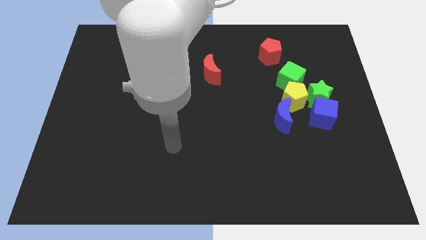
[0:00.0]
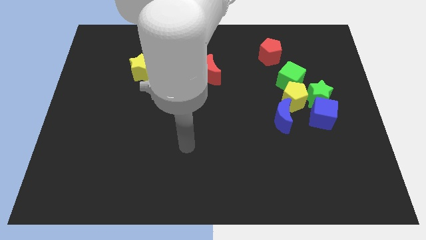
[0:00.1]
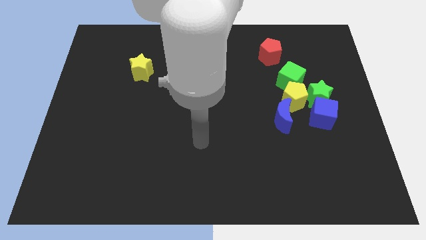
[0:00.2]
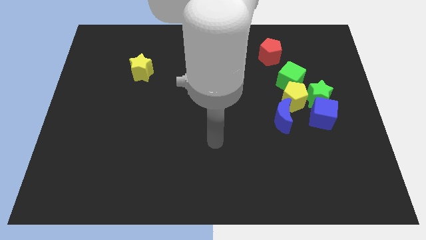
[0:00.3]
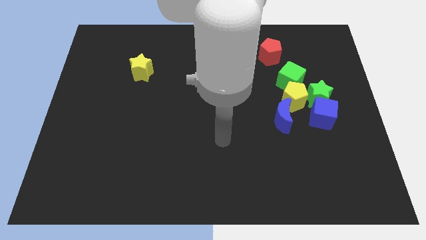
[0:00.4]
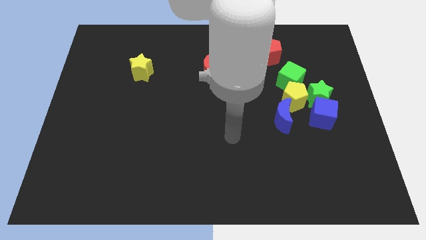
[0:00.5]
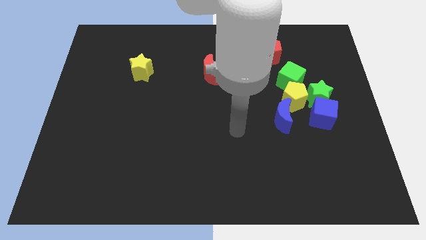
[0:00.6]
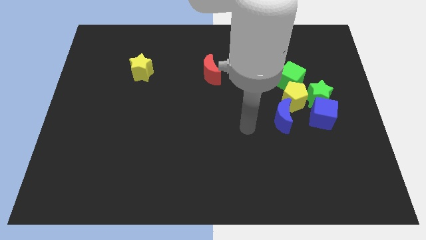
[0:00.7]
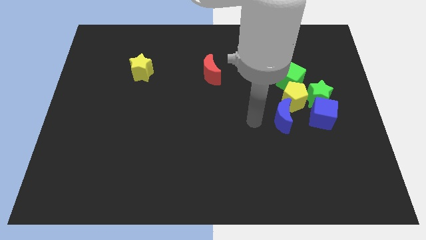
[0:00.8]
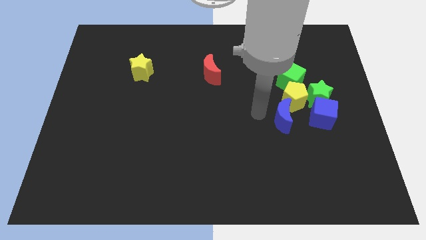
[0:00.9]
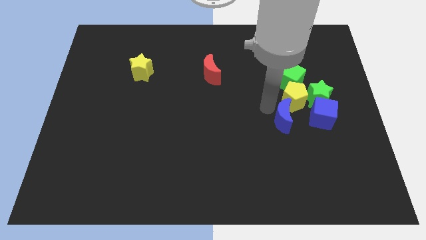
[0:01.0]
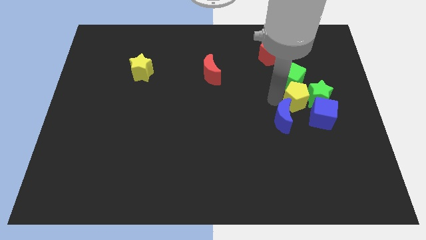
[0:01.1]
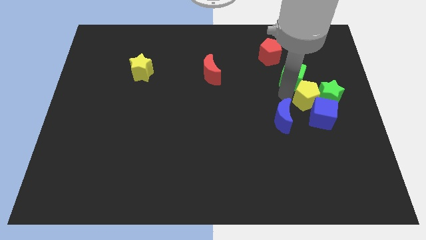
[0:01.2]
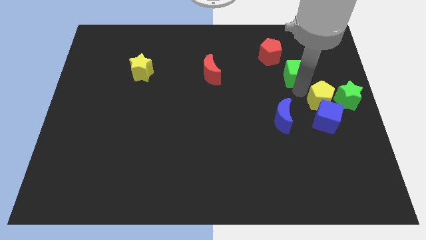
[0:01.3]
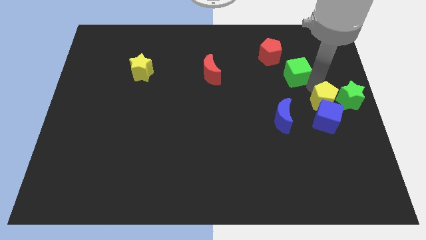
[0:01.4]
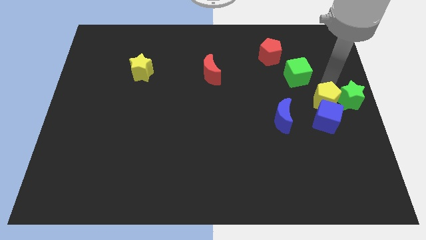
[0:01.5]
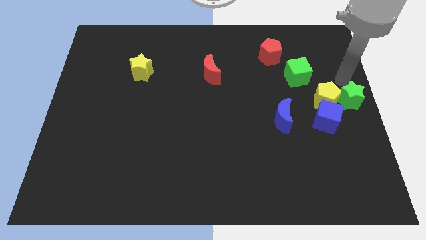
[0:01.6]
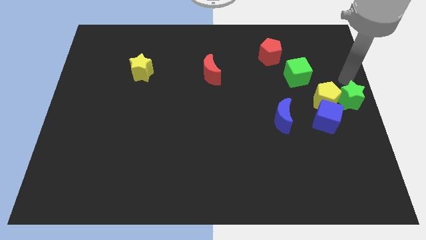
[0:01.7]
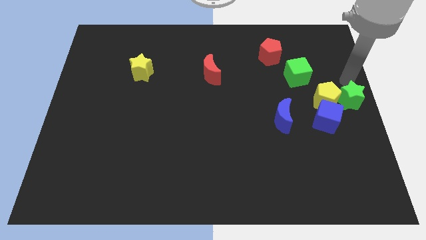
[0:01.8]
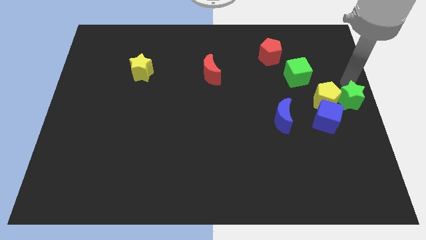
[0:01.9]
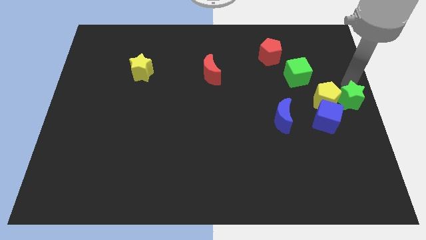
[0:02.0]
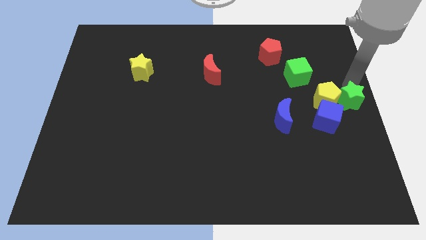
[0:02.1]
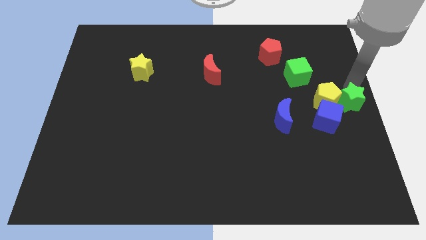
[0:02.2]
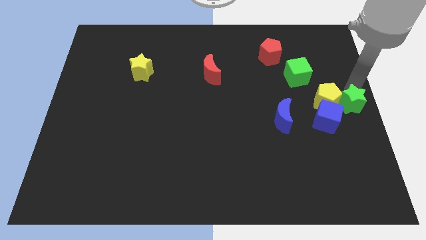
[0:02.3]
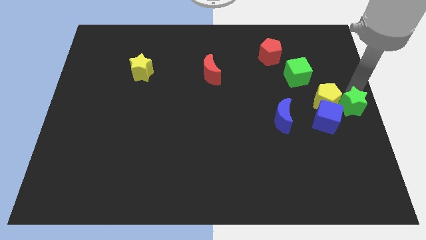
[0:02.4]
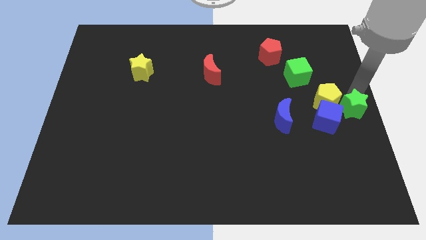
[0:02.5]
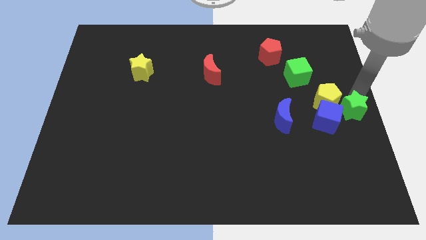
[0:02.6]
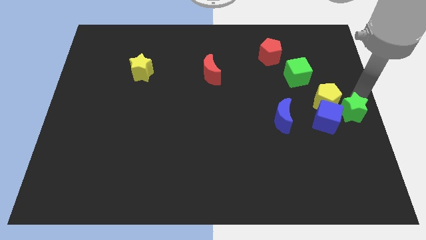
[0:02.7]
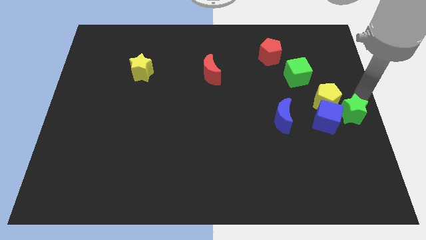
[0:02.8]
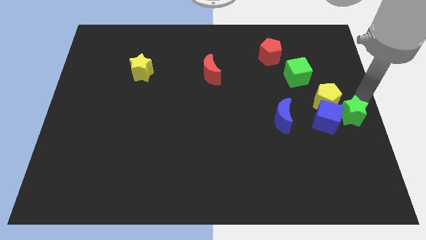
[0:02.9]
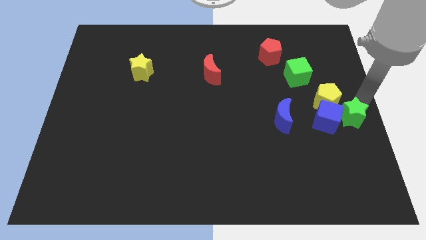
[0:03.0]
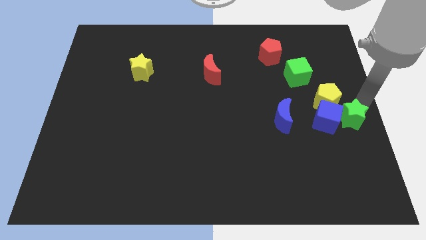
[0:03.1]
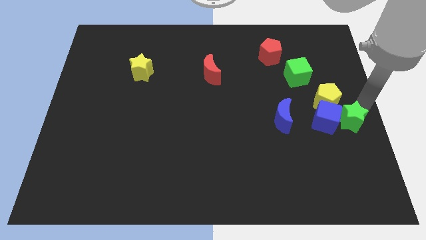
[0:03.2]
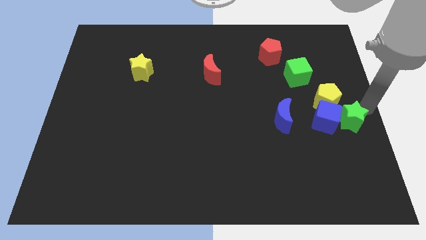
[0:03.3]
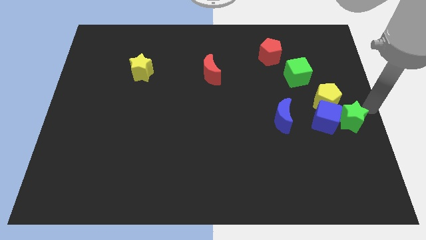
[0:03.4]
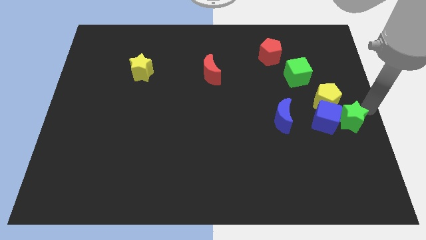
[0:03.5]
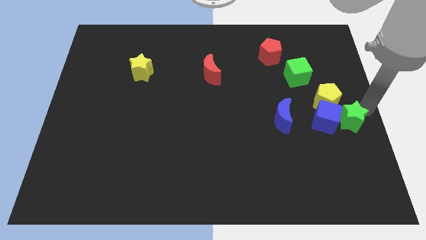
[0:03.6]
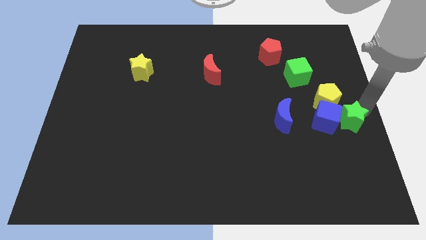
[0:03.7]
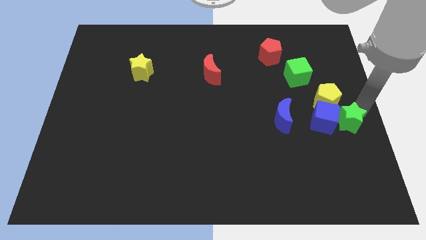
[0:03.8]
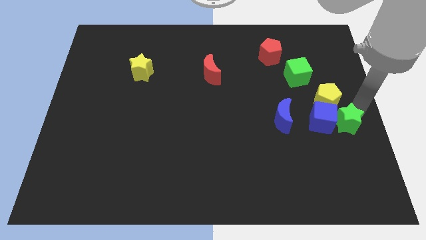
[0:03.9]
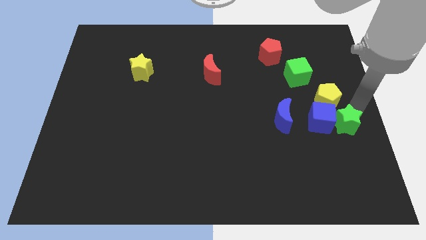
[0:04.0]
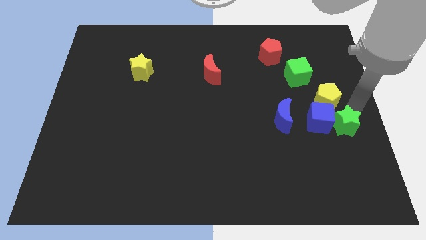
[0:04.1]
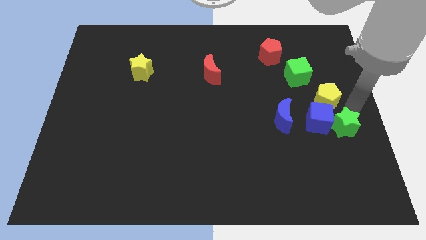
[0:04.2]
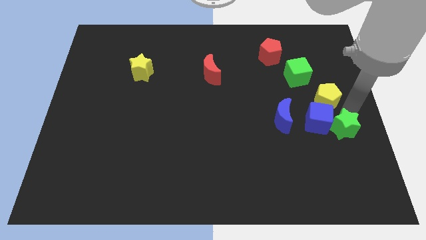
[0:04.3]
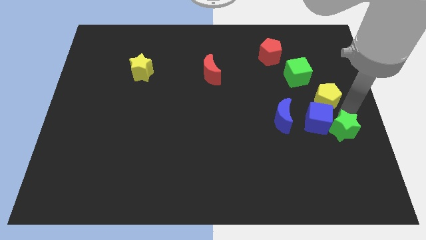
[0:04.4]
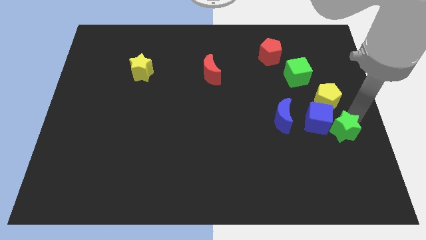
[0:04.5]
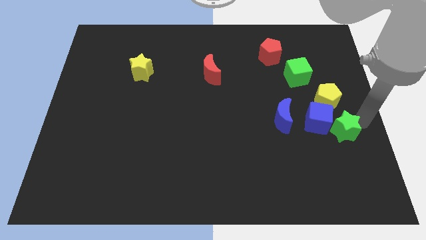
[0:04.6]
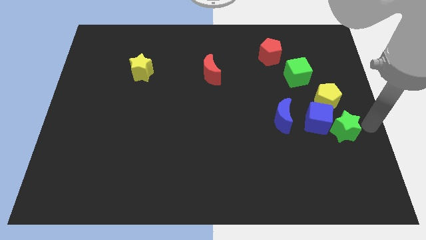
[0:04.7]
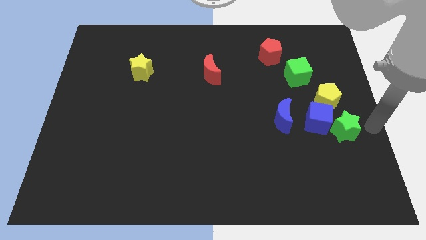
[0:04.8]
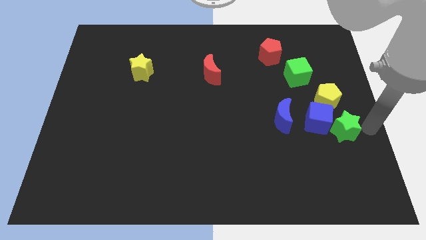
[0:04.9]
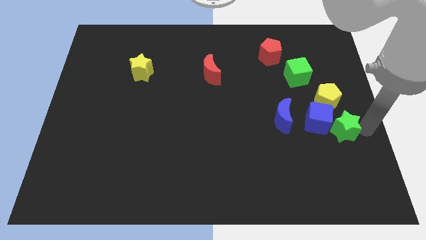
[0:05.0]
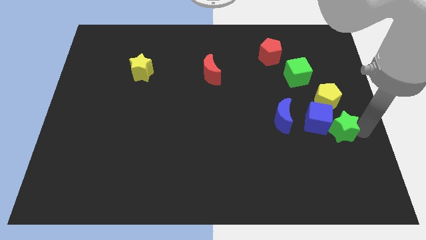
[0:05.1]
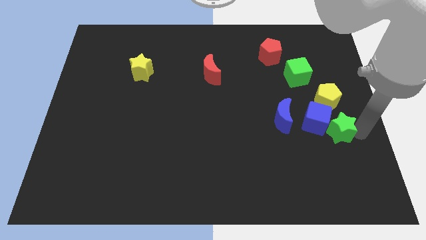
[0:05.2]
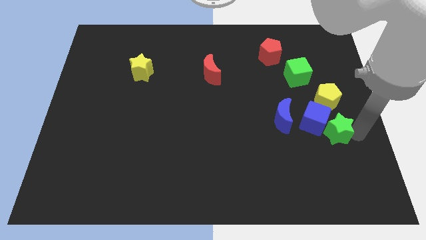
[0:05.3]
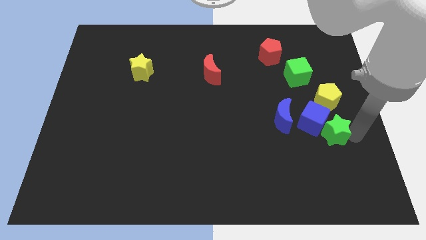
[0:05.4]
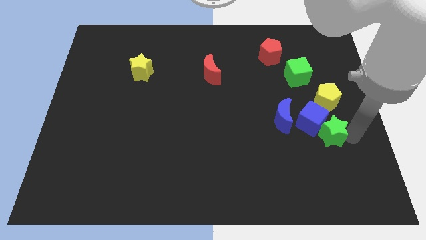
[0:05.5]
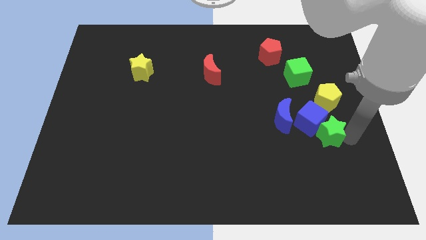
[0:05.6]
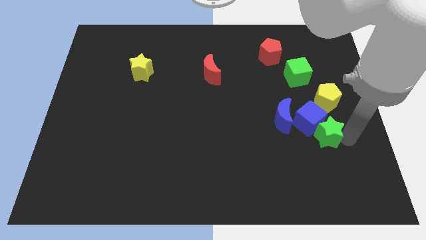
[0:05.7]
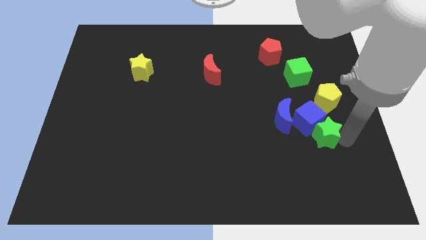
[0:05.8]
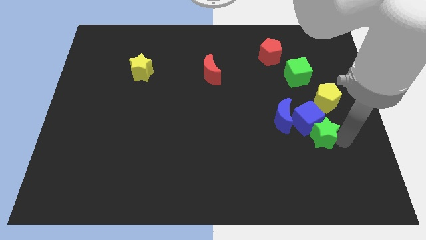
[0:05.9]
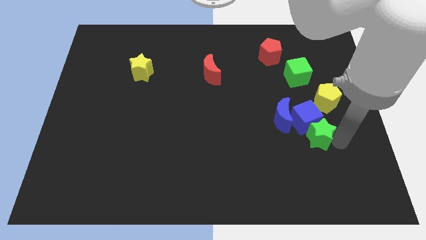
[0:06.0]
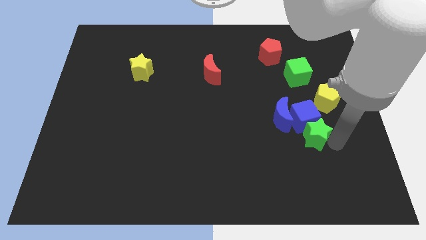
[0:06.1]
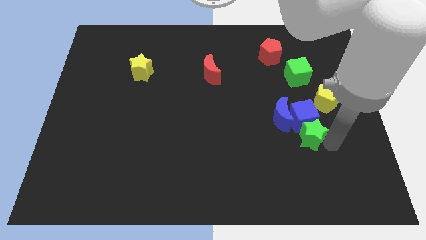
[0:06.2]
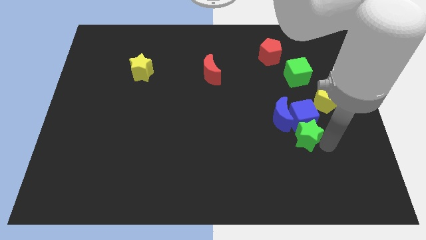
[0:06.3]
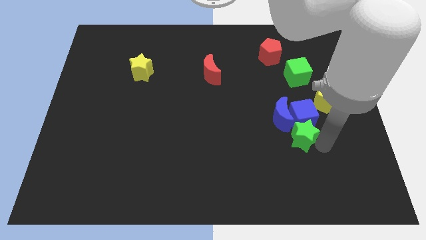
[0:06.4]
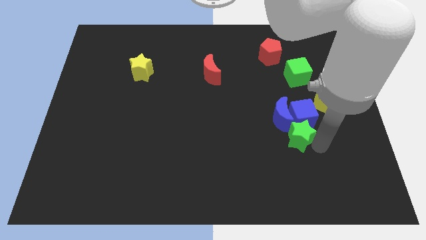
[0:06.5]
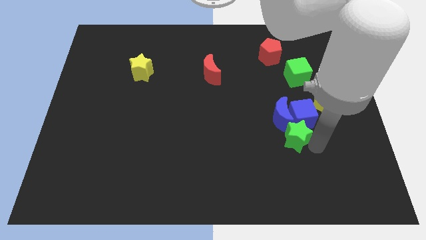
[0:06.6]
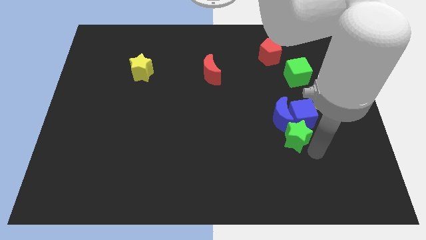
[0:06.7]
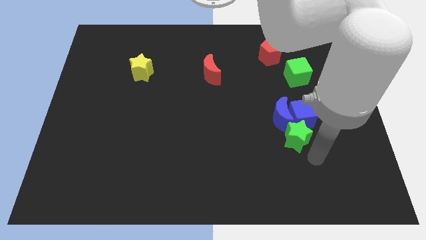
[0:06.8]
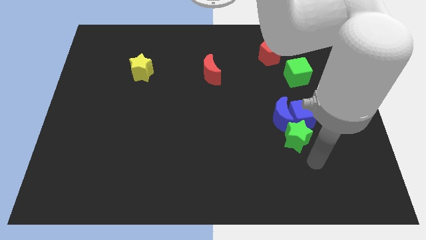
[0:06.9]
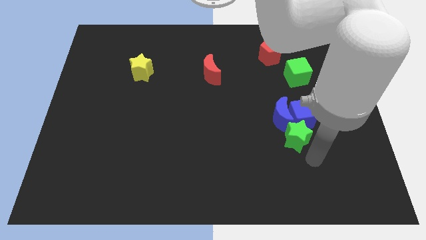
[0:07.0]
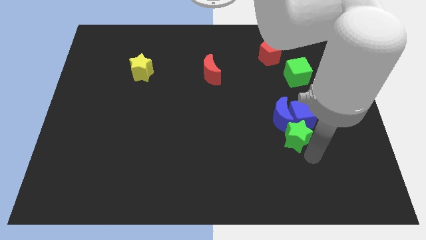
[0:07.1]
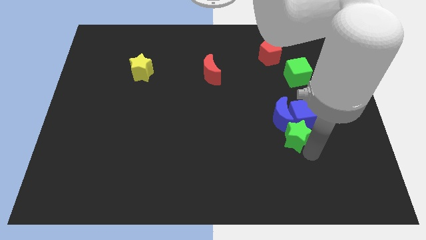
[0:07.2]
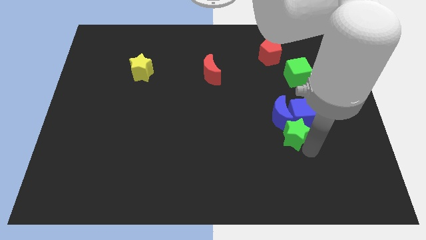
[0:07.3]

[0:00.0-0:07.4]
move the green star next to the blue moon
